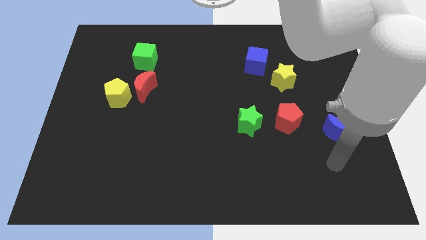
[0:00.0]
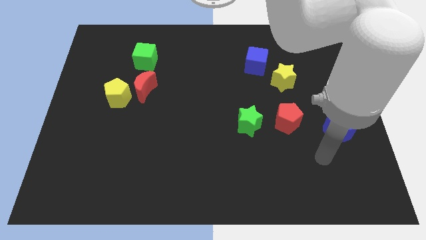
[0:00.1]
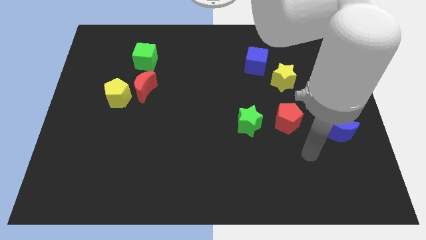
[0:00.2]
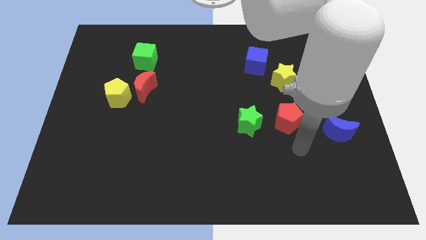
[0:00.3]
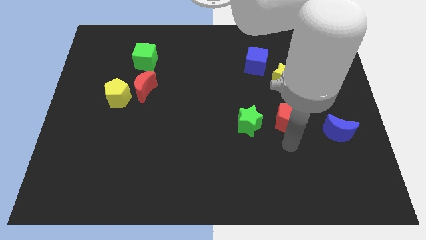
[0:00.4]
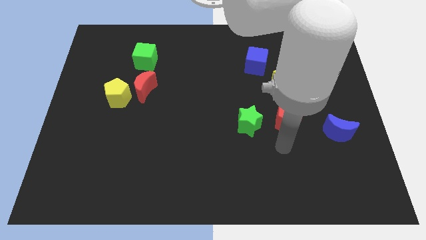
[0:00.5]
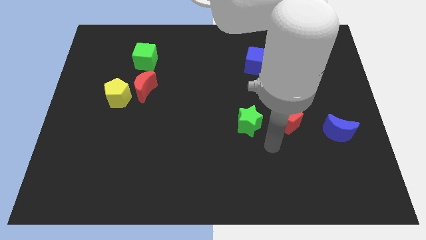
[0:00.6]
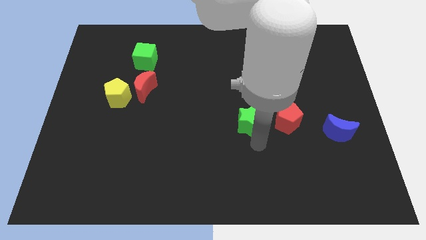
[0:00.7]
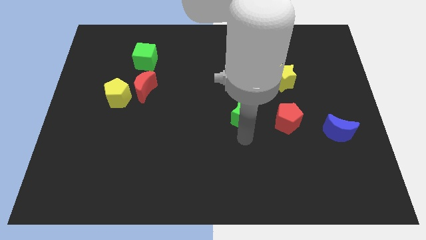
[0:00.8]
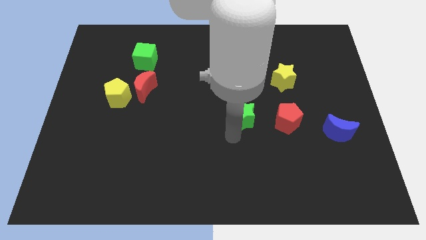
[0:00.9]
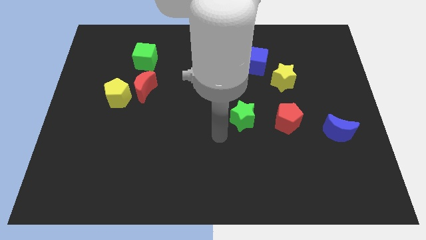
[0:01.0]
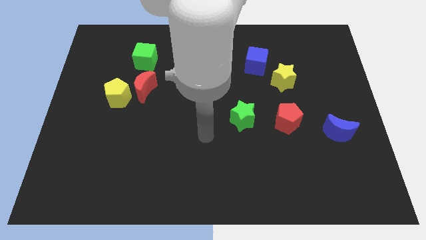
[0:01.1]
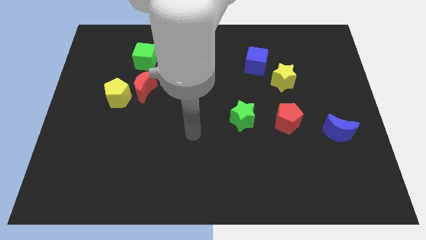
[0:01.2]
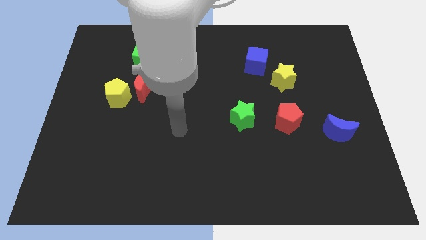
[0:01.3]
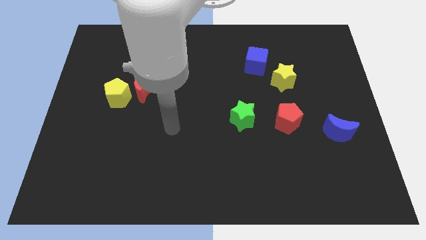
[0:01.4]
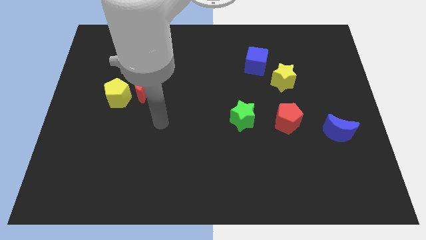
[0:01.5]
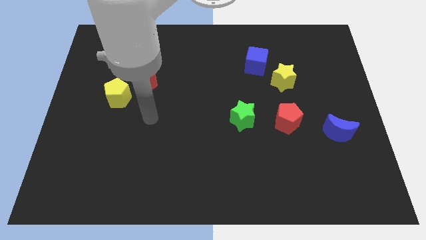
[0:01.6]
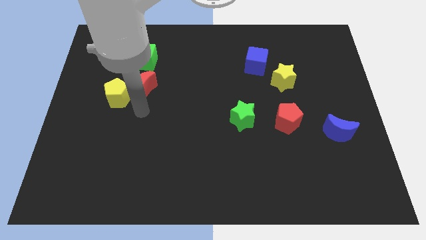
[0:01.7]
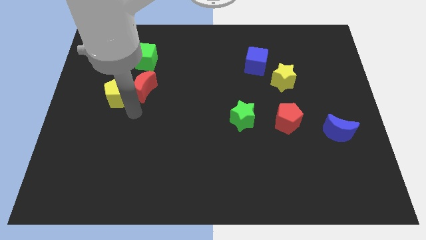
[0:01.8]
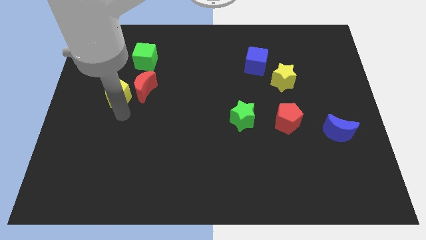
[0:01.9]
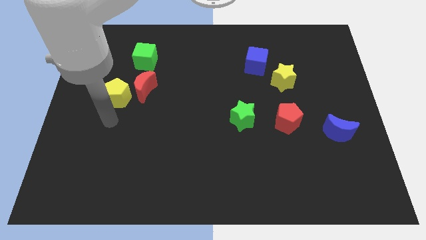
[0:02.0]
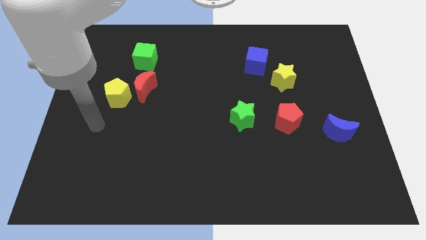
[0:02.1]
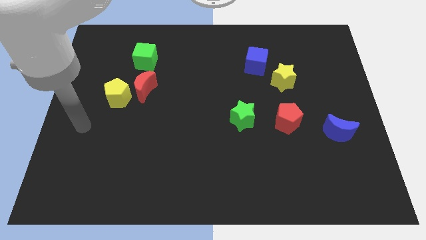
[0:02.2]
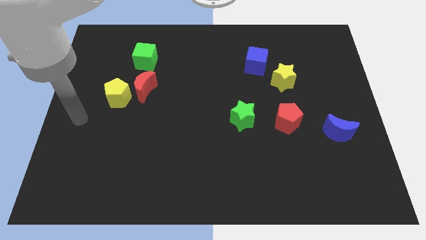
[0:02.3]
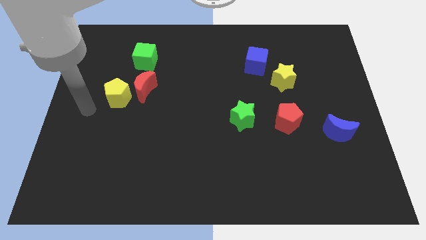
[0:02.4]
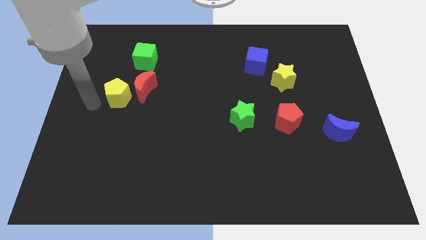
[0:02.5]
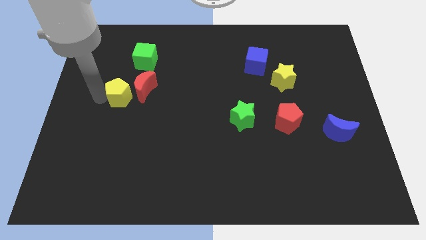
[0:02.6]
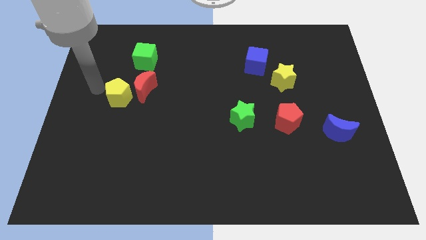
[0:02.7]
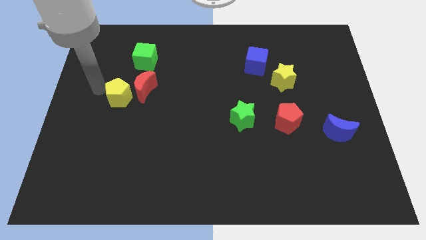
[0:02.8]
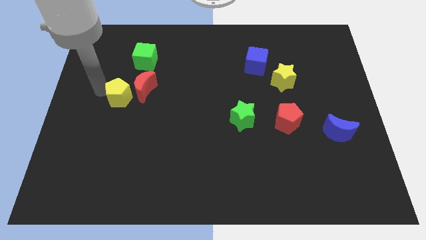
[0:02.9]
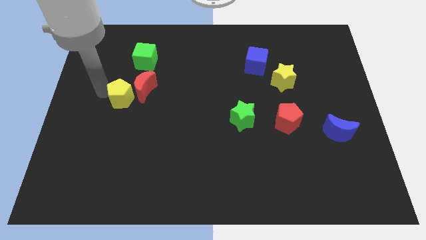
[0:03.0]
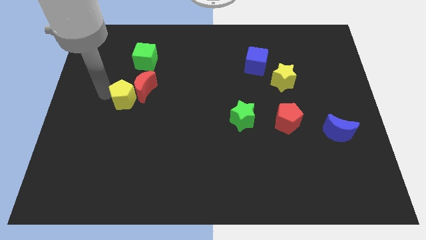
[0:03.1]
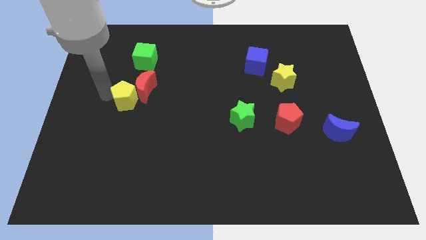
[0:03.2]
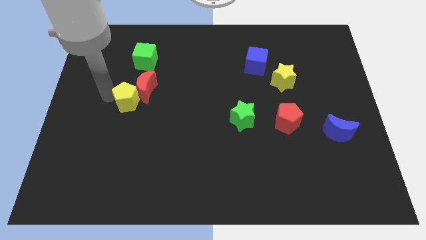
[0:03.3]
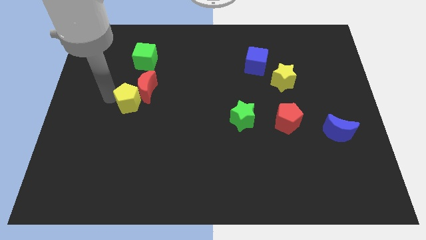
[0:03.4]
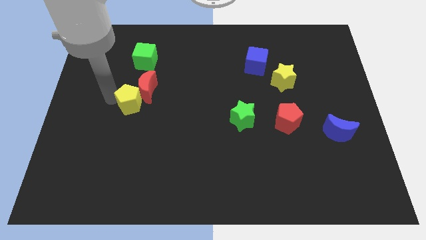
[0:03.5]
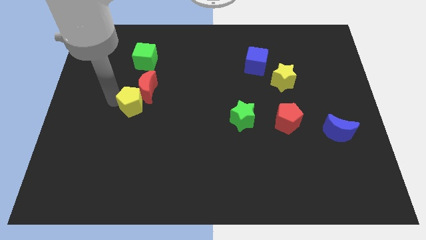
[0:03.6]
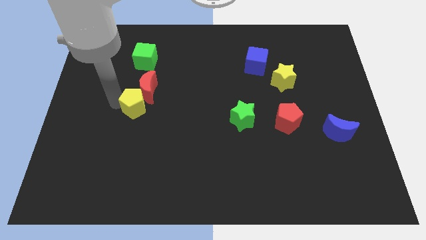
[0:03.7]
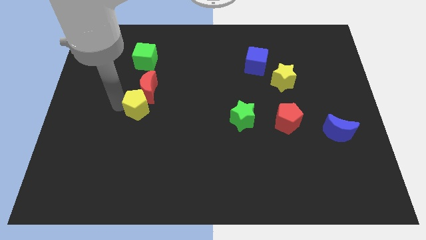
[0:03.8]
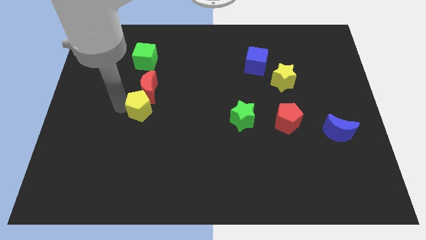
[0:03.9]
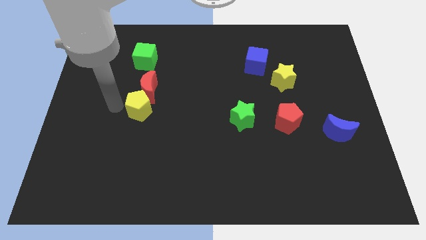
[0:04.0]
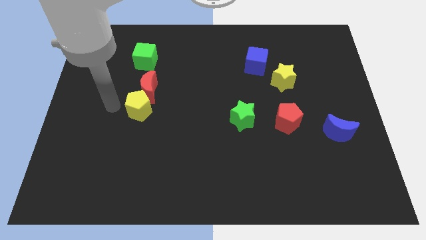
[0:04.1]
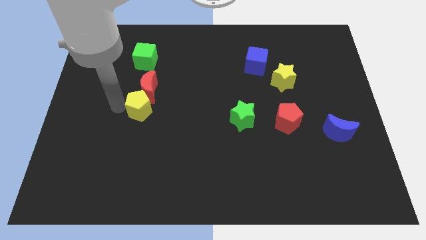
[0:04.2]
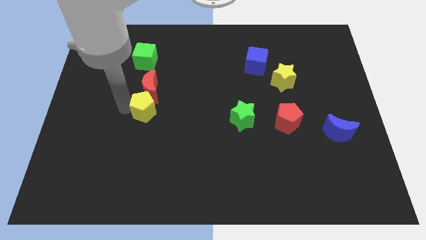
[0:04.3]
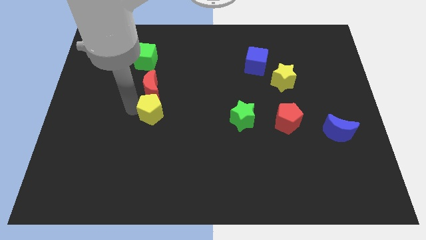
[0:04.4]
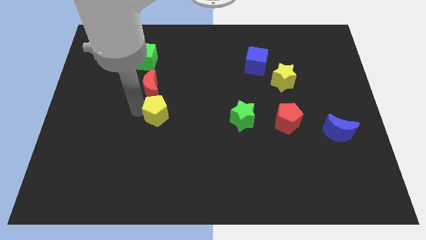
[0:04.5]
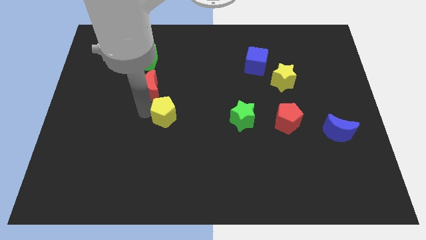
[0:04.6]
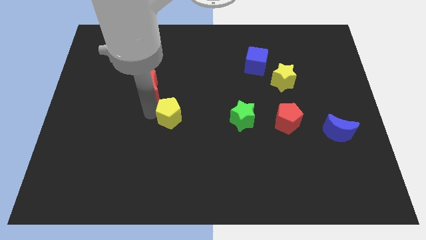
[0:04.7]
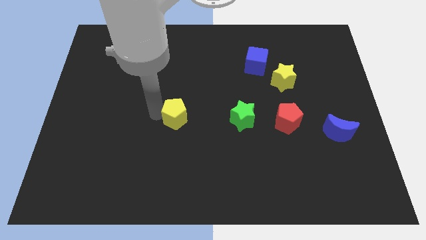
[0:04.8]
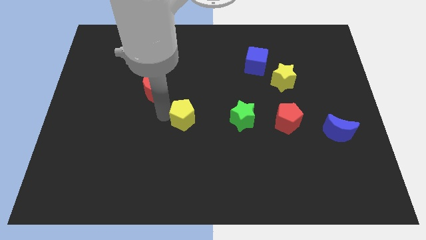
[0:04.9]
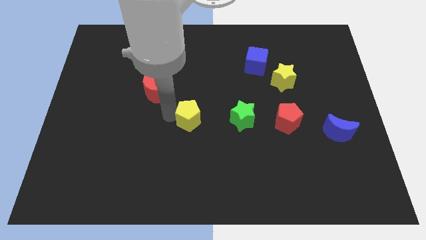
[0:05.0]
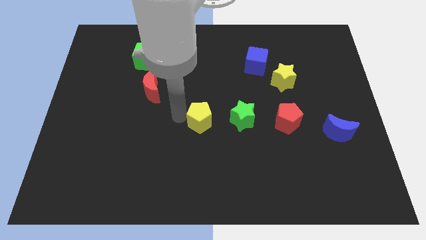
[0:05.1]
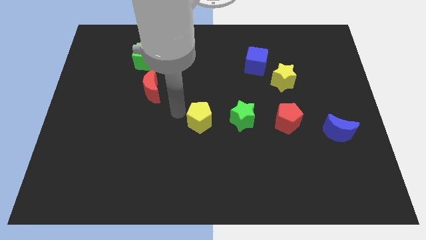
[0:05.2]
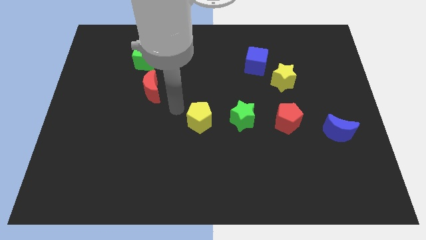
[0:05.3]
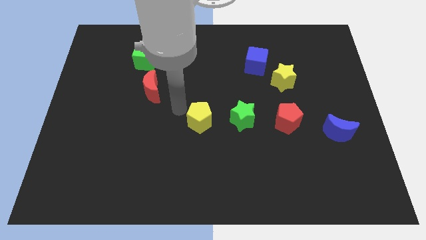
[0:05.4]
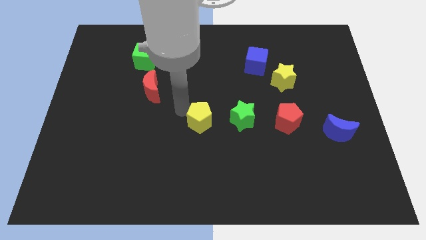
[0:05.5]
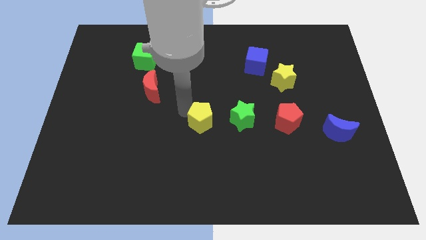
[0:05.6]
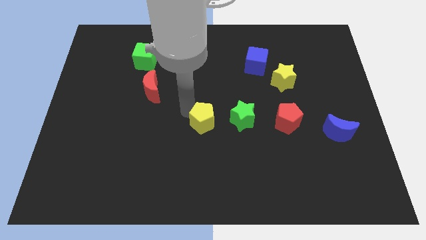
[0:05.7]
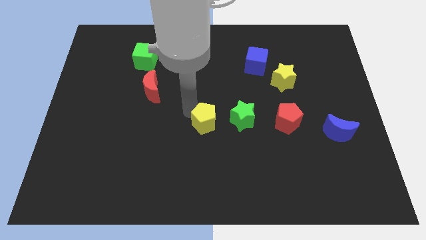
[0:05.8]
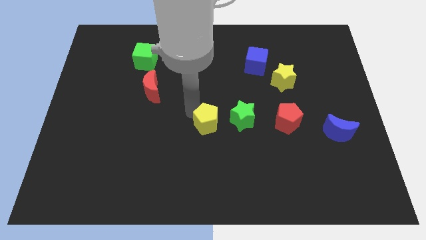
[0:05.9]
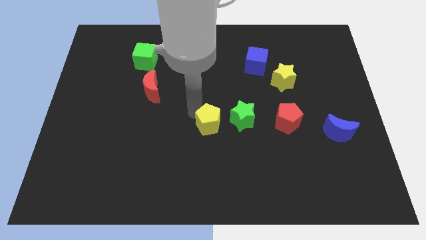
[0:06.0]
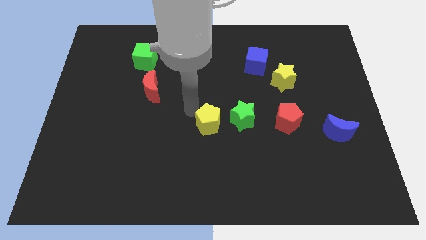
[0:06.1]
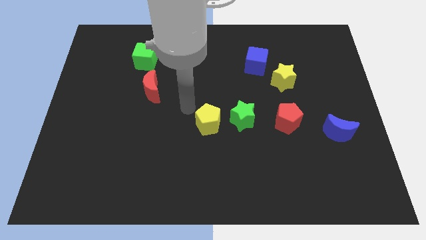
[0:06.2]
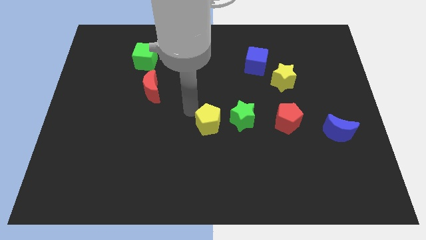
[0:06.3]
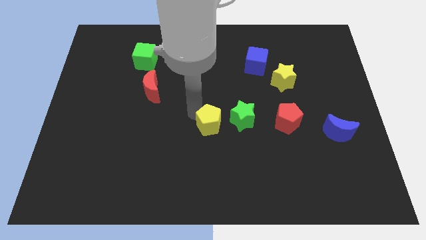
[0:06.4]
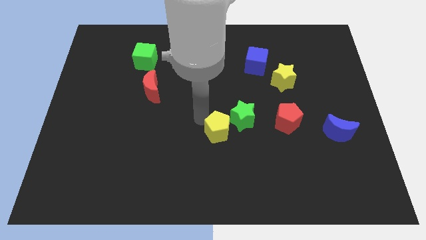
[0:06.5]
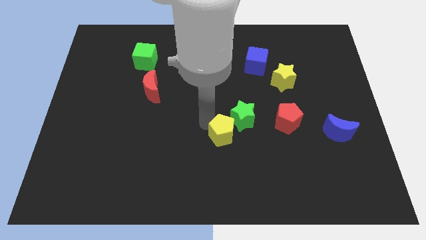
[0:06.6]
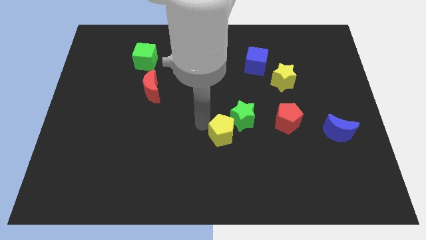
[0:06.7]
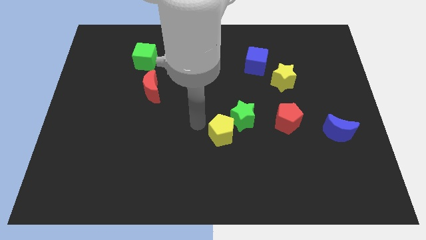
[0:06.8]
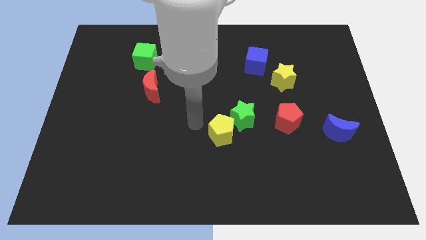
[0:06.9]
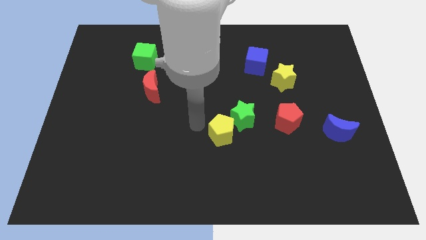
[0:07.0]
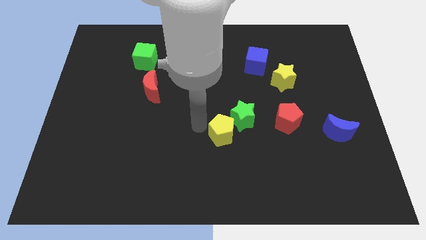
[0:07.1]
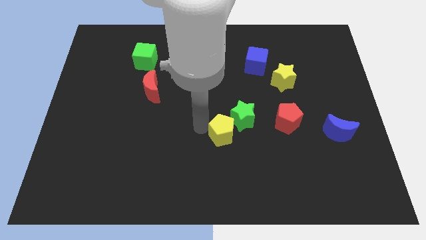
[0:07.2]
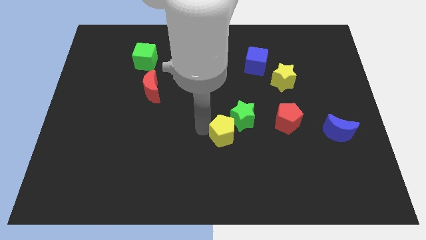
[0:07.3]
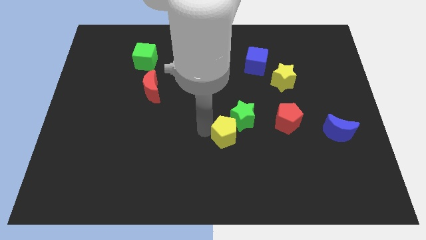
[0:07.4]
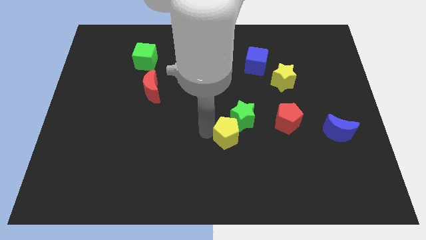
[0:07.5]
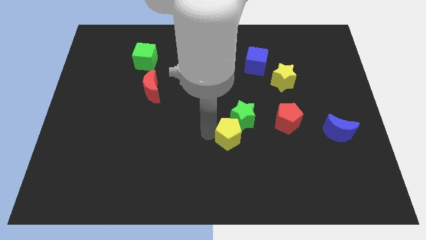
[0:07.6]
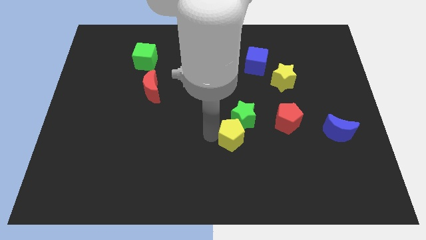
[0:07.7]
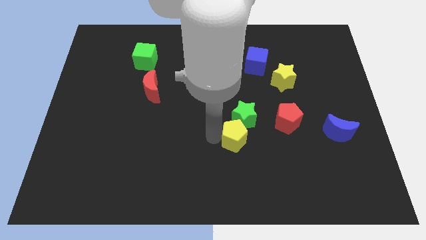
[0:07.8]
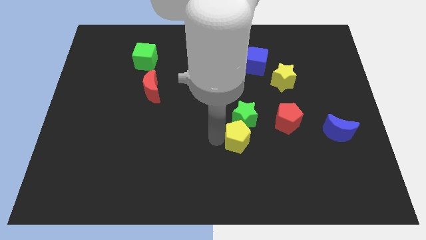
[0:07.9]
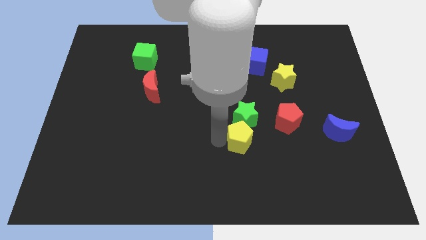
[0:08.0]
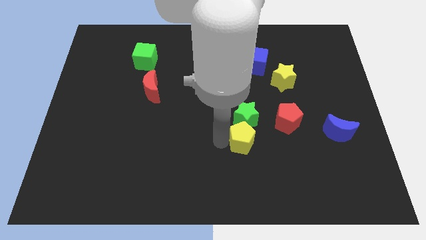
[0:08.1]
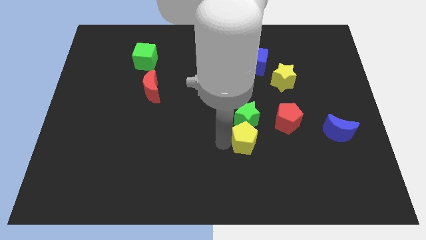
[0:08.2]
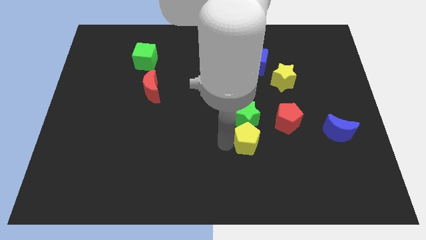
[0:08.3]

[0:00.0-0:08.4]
put the yellow pentagon to the bottom right side of the green star
